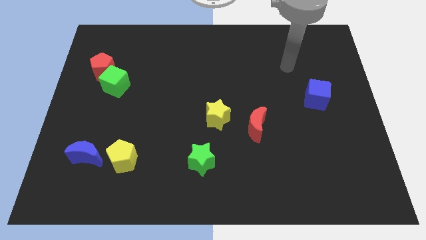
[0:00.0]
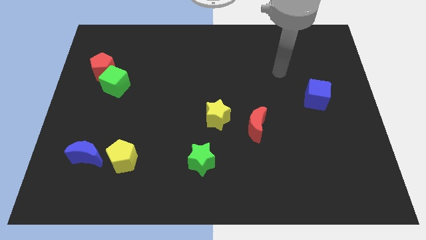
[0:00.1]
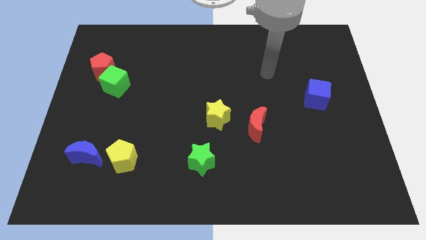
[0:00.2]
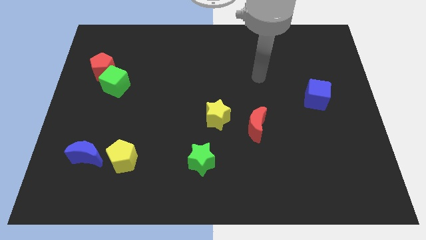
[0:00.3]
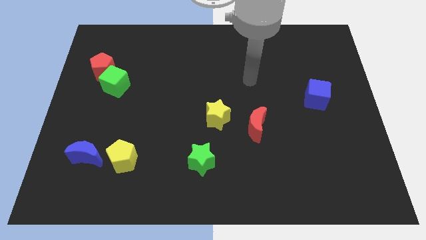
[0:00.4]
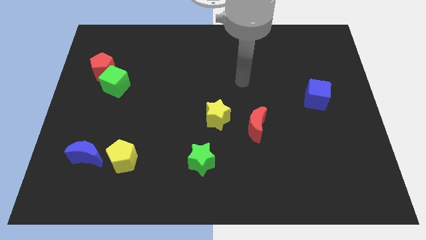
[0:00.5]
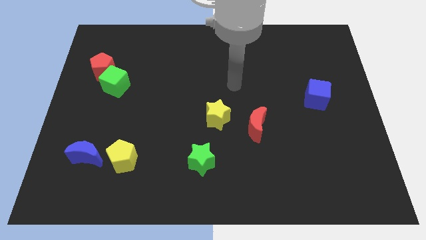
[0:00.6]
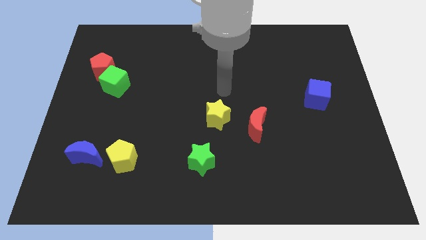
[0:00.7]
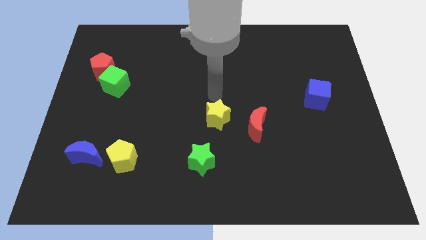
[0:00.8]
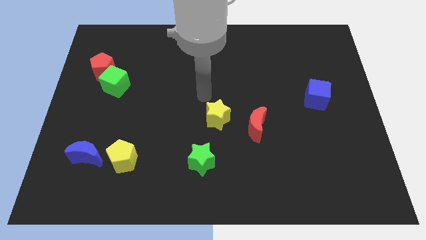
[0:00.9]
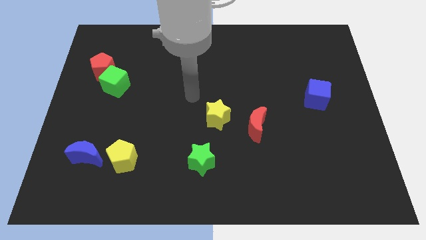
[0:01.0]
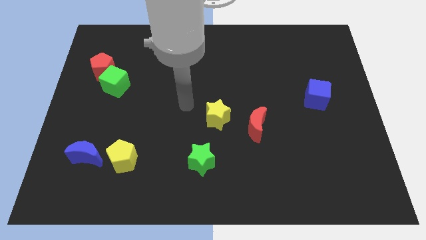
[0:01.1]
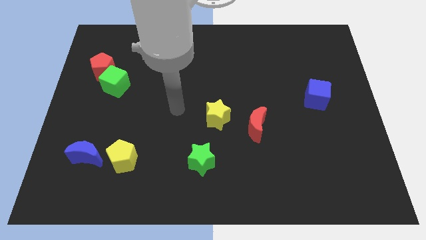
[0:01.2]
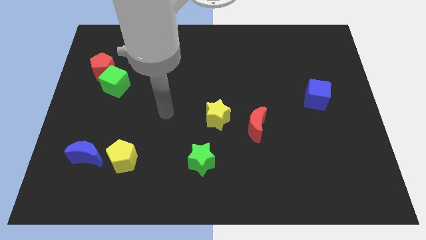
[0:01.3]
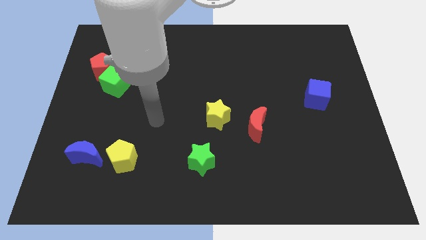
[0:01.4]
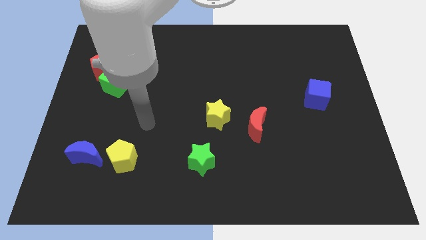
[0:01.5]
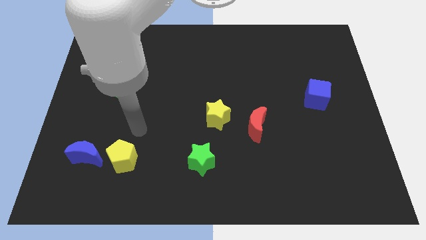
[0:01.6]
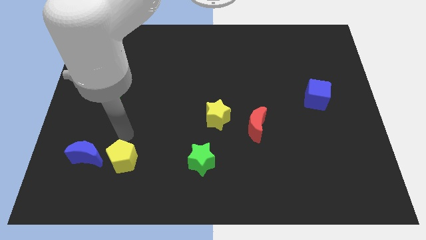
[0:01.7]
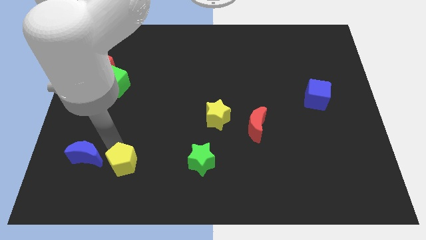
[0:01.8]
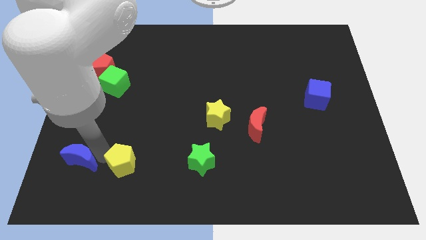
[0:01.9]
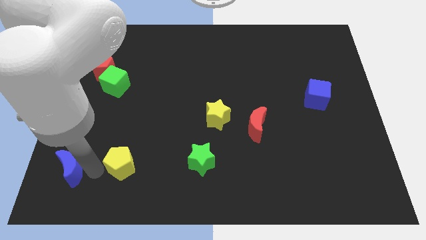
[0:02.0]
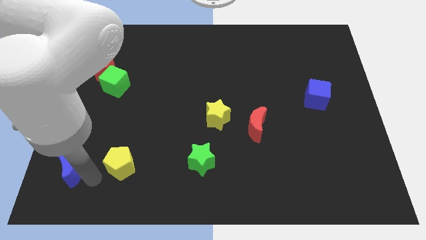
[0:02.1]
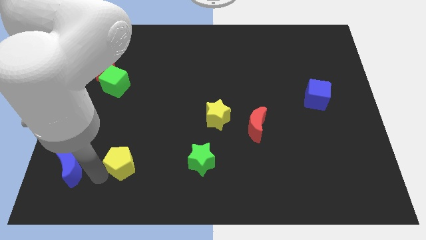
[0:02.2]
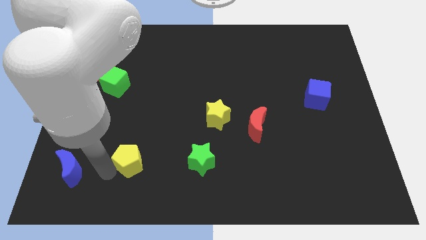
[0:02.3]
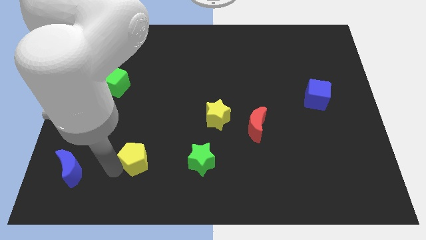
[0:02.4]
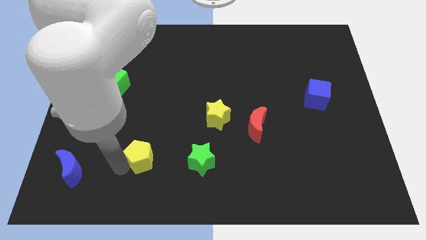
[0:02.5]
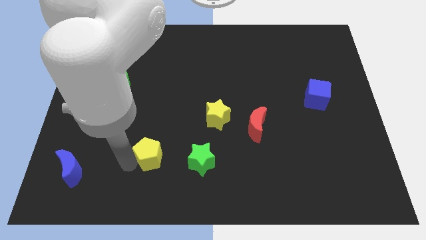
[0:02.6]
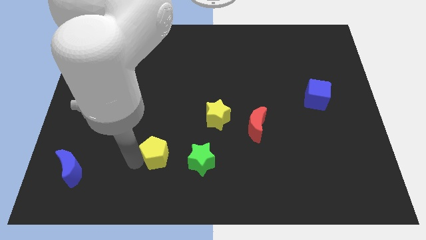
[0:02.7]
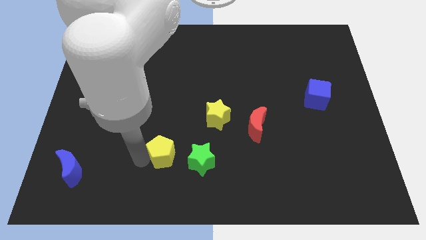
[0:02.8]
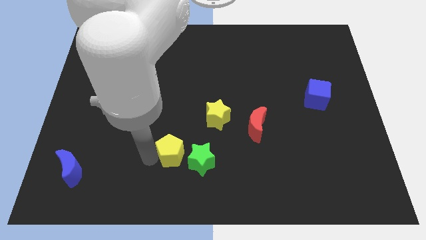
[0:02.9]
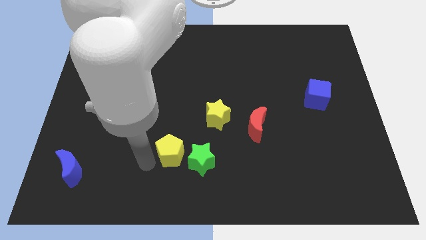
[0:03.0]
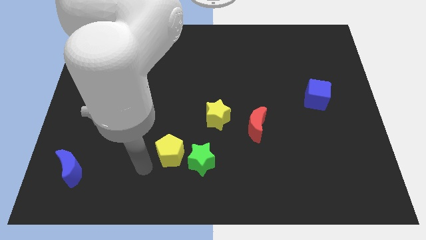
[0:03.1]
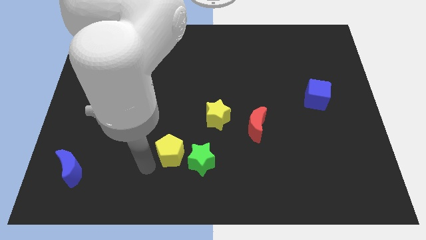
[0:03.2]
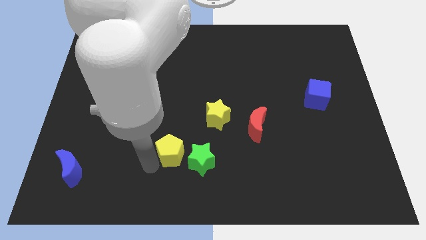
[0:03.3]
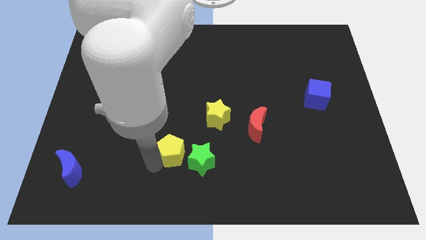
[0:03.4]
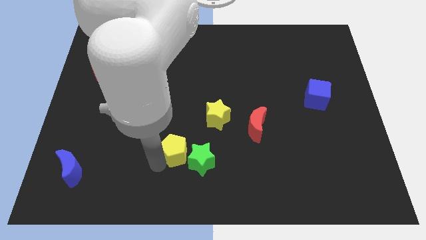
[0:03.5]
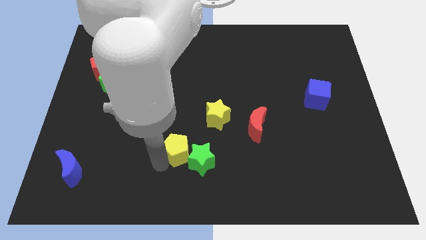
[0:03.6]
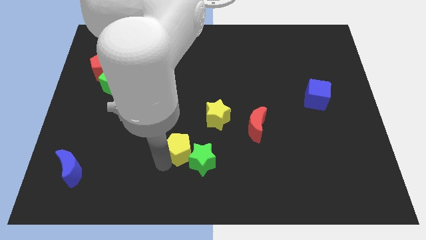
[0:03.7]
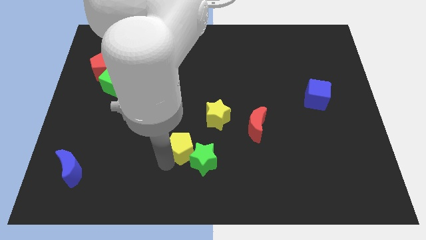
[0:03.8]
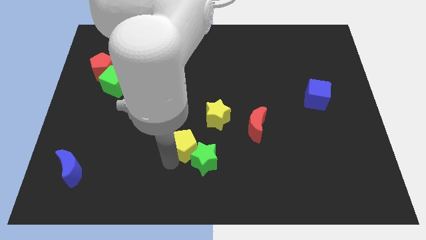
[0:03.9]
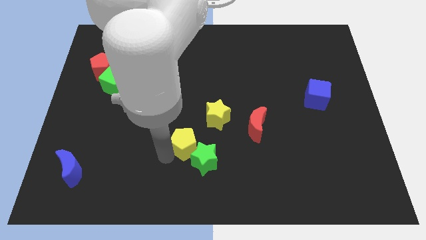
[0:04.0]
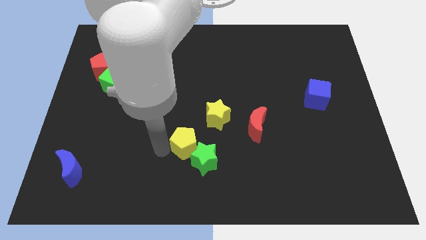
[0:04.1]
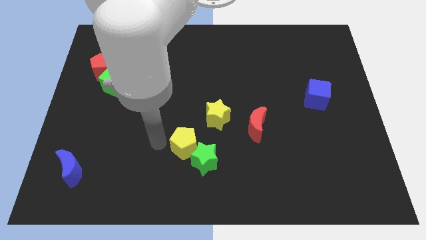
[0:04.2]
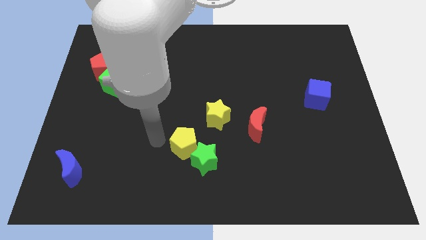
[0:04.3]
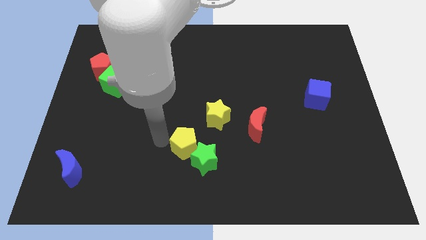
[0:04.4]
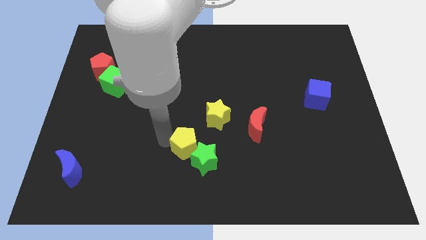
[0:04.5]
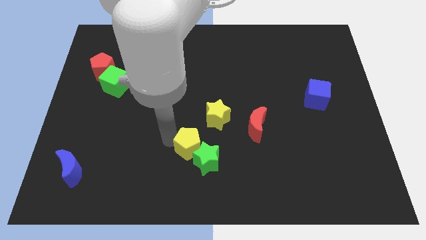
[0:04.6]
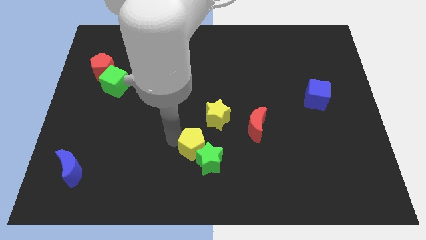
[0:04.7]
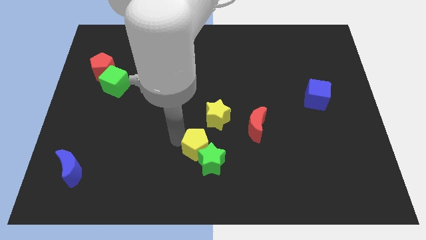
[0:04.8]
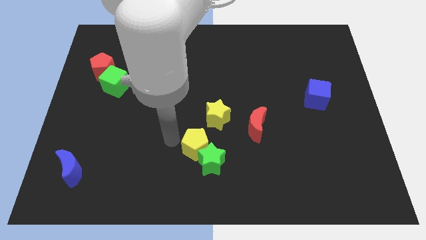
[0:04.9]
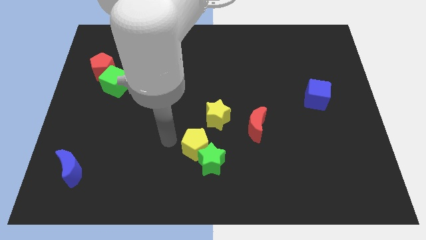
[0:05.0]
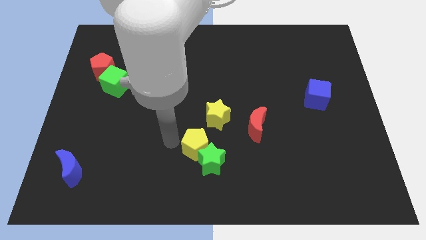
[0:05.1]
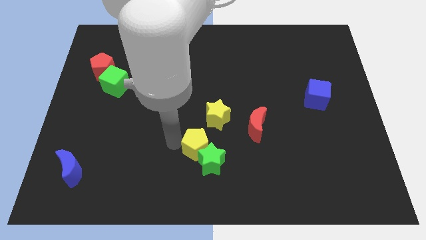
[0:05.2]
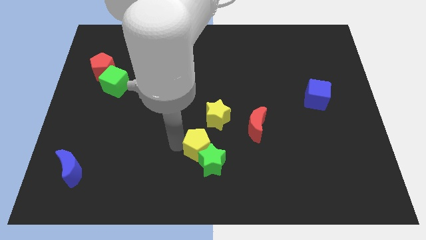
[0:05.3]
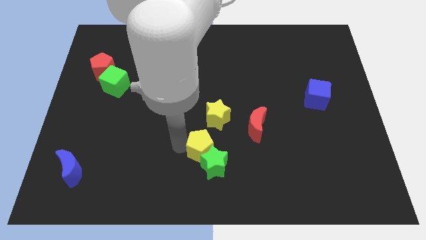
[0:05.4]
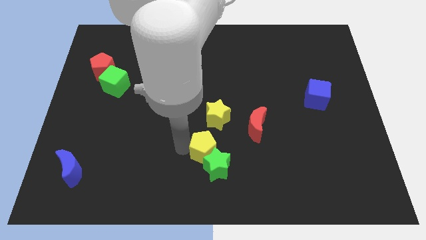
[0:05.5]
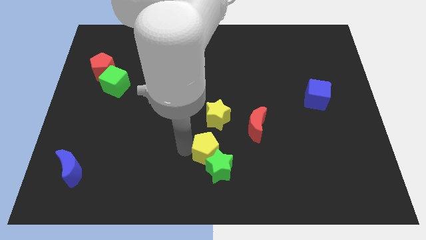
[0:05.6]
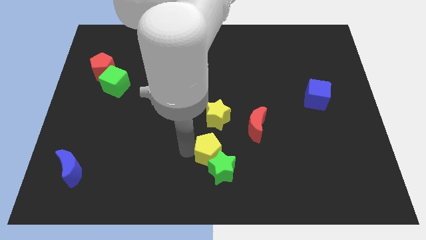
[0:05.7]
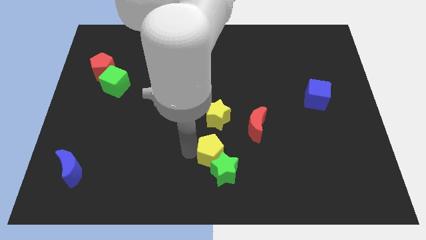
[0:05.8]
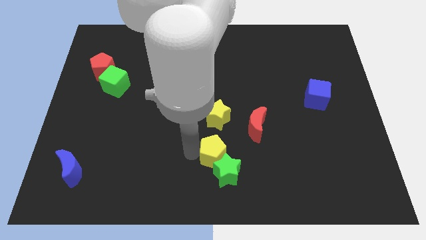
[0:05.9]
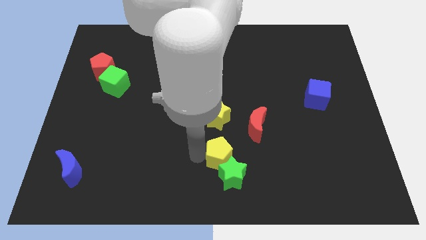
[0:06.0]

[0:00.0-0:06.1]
move the yellow pentagon right

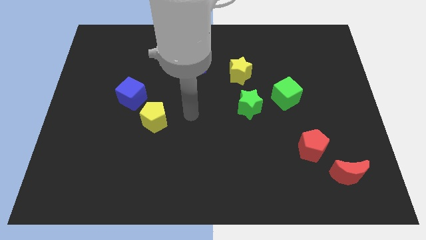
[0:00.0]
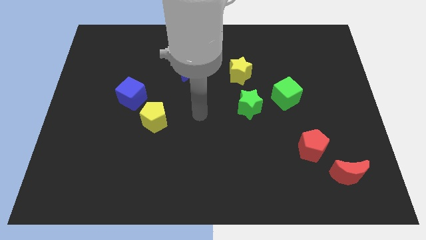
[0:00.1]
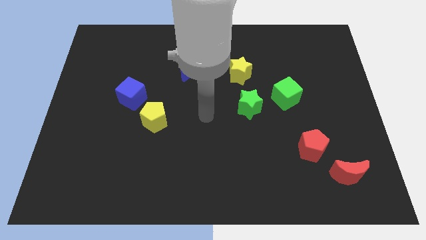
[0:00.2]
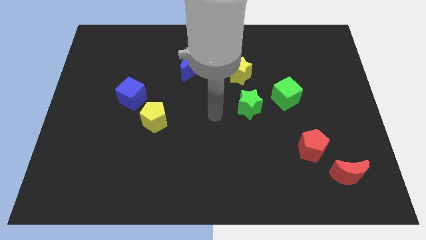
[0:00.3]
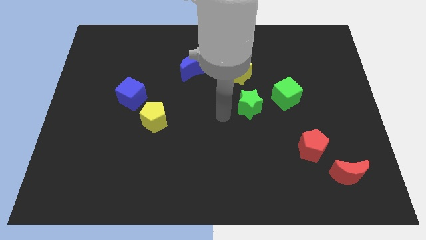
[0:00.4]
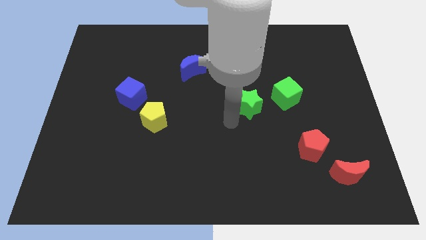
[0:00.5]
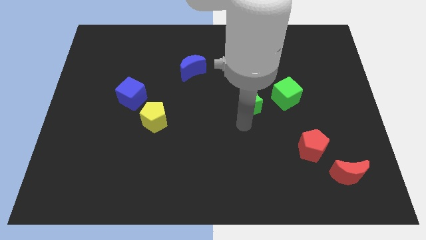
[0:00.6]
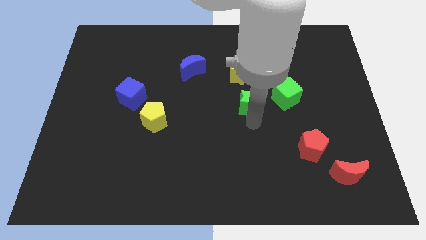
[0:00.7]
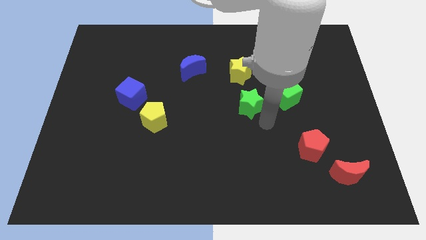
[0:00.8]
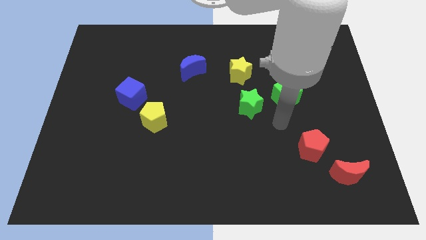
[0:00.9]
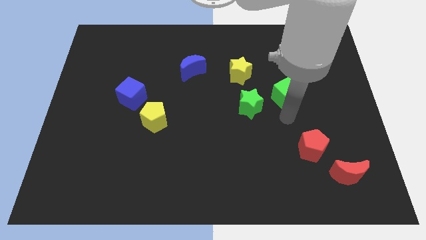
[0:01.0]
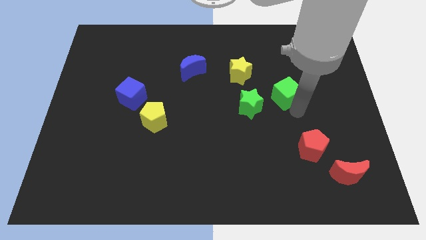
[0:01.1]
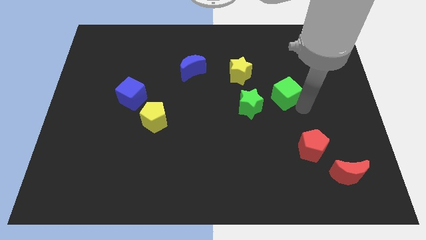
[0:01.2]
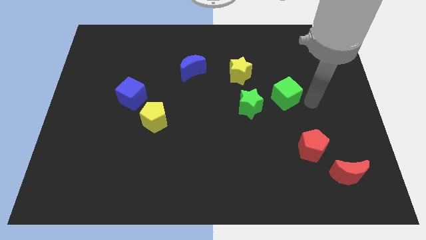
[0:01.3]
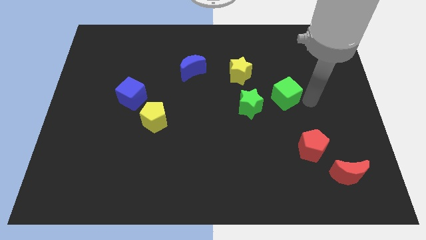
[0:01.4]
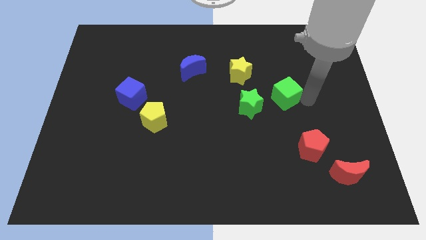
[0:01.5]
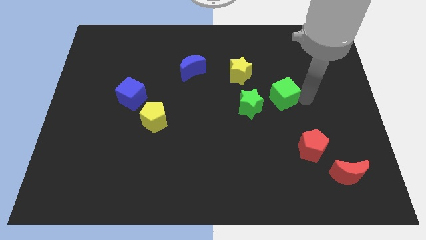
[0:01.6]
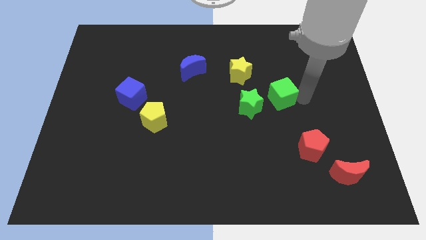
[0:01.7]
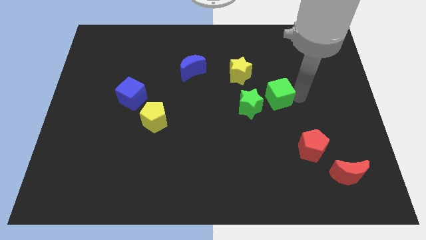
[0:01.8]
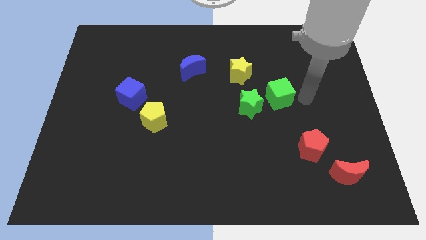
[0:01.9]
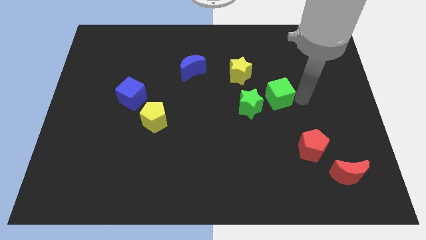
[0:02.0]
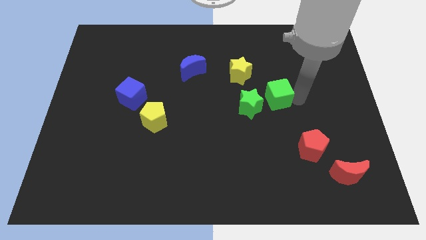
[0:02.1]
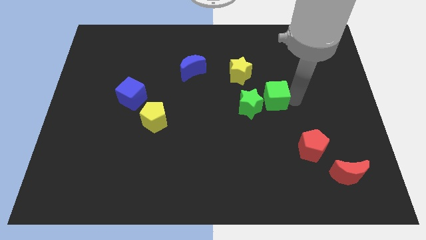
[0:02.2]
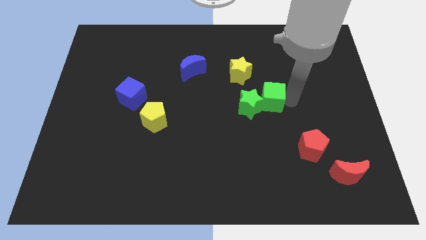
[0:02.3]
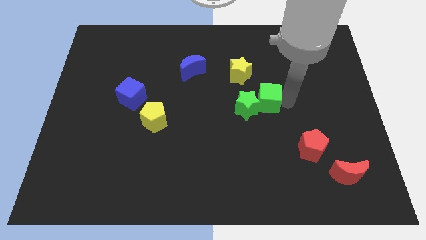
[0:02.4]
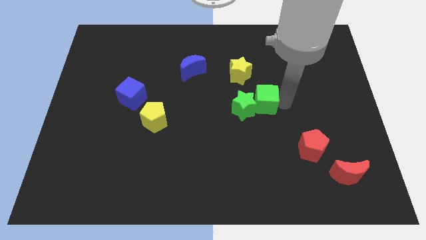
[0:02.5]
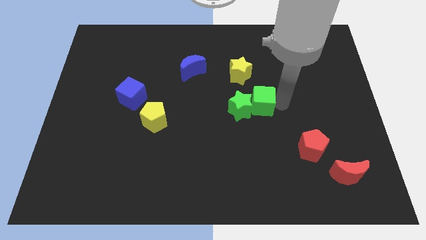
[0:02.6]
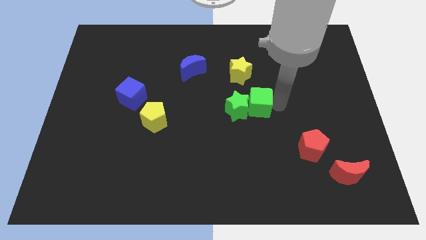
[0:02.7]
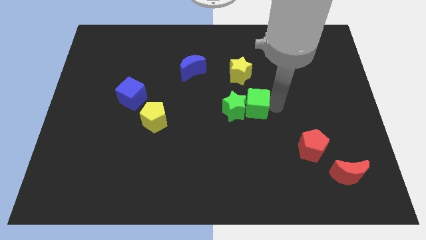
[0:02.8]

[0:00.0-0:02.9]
push the green cube to the left a little bit
